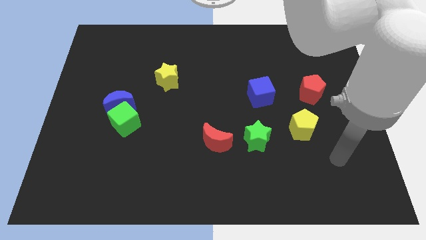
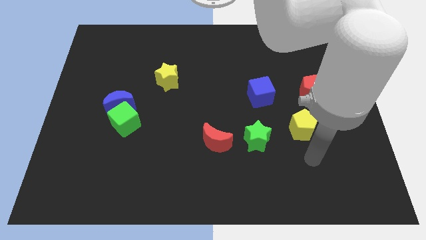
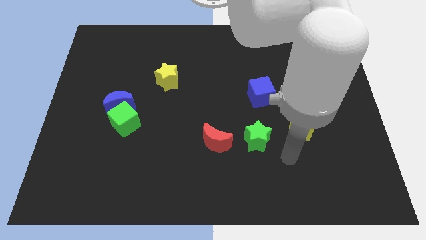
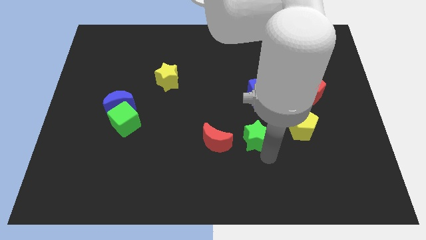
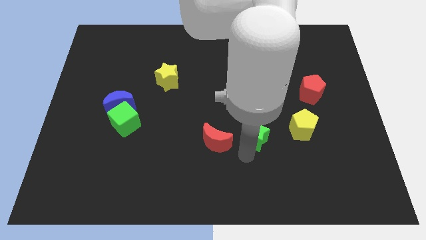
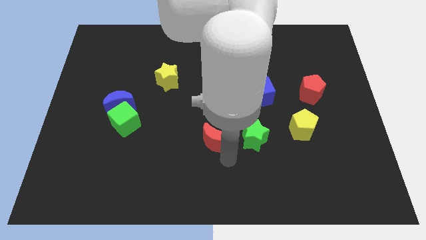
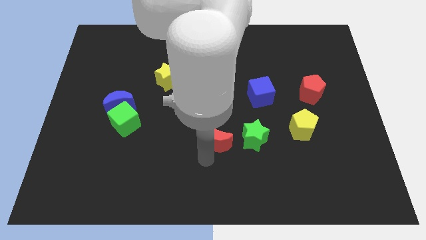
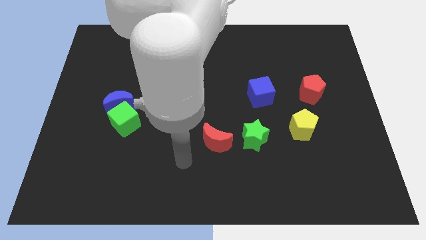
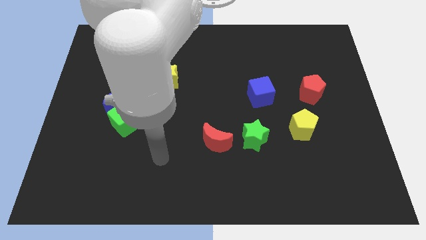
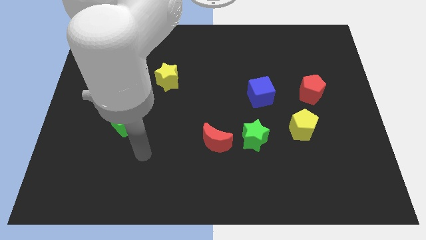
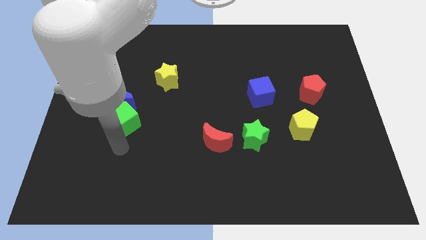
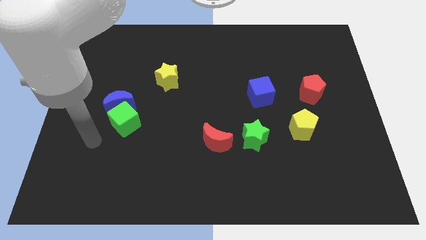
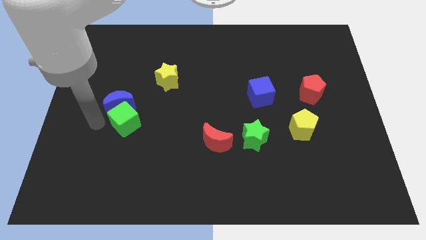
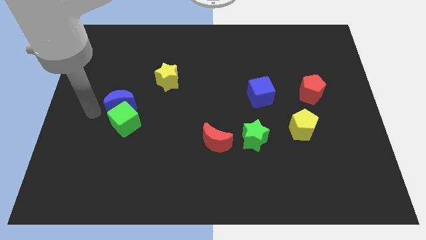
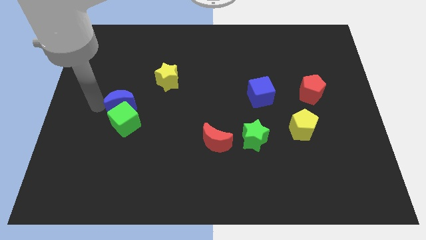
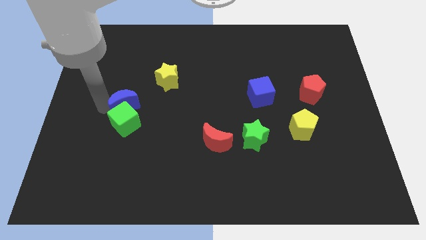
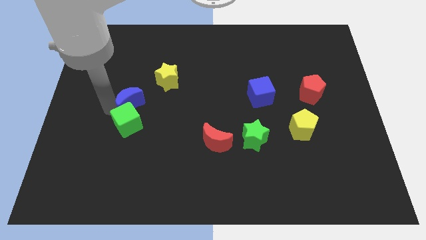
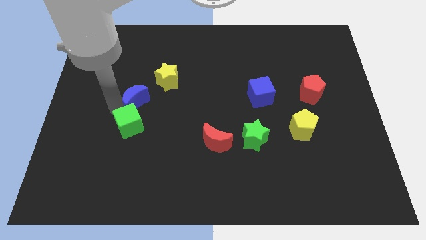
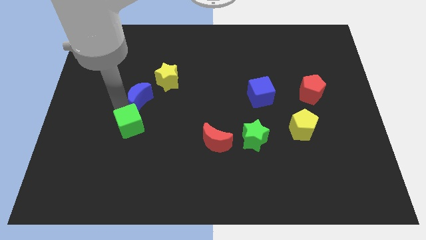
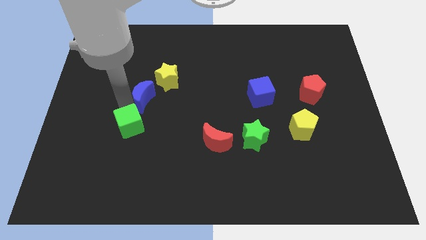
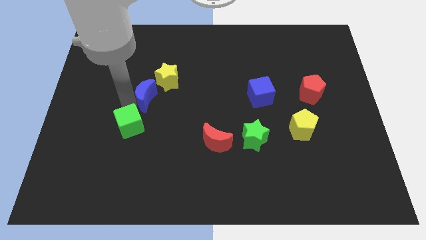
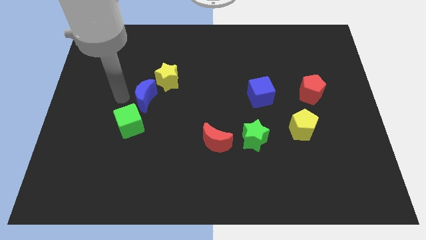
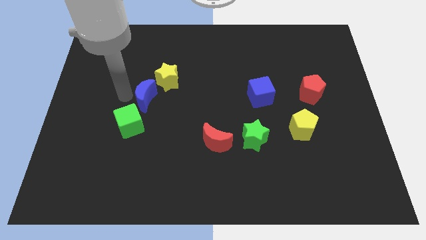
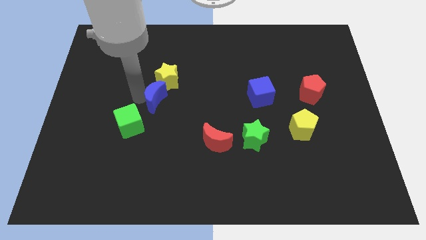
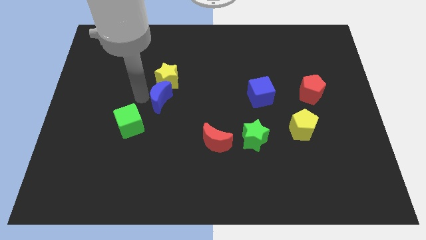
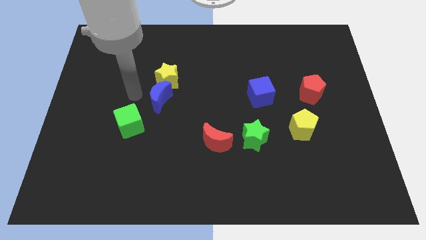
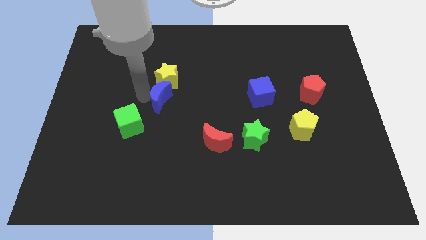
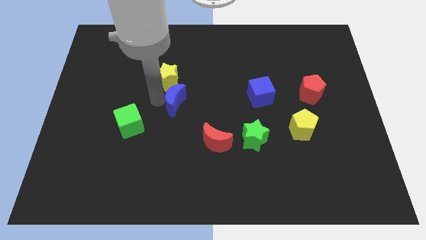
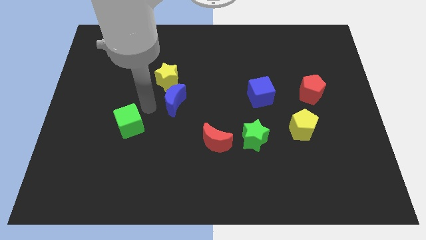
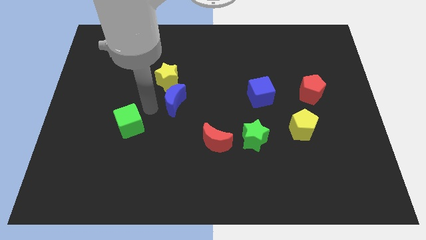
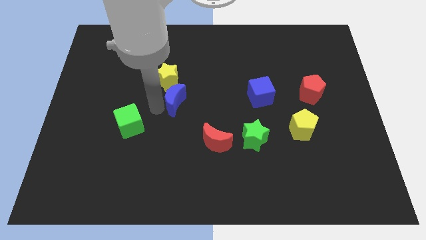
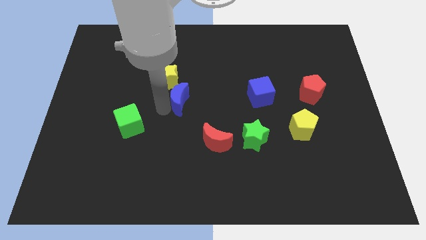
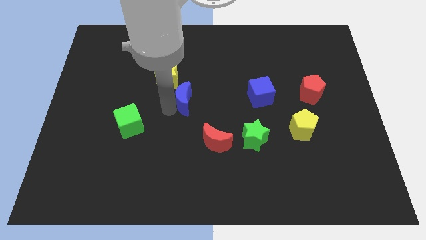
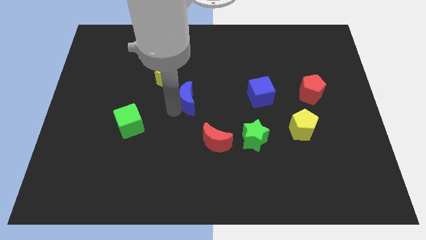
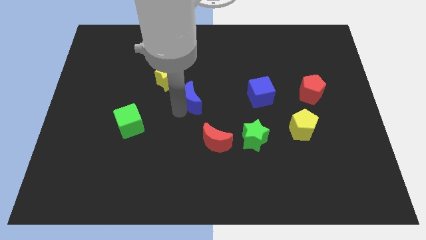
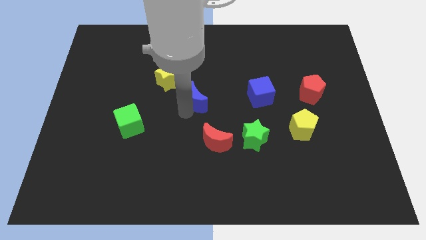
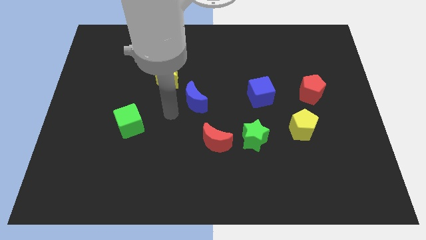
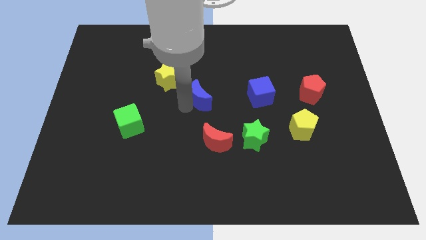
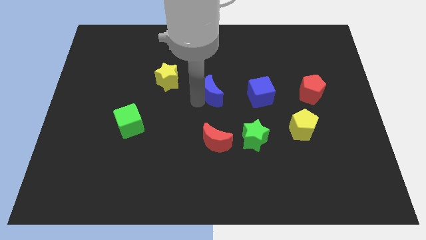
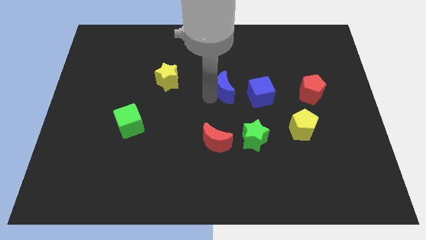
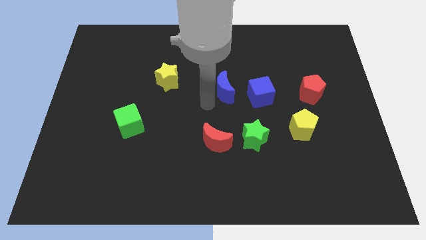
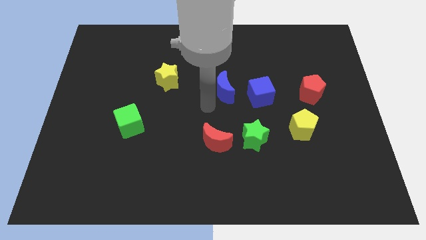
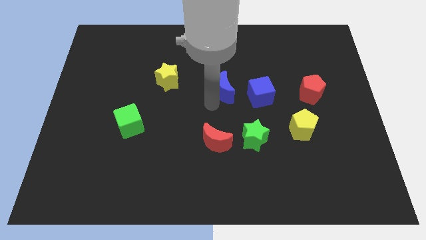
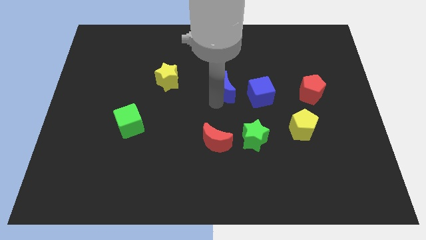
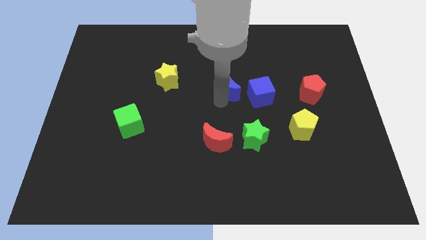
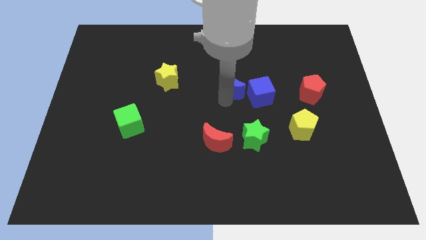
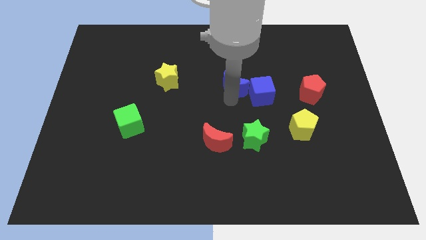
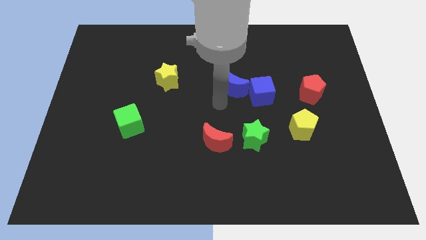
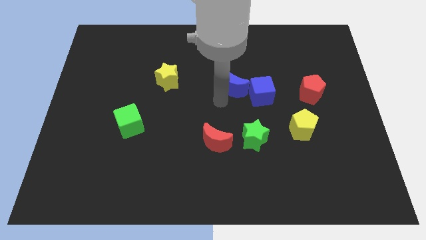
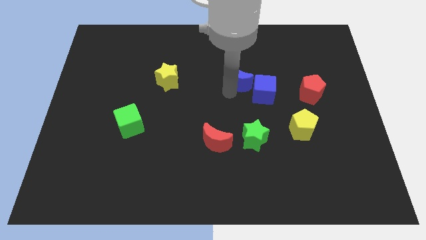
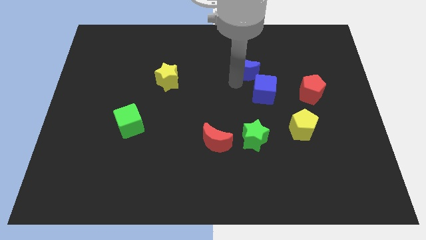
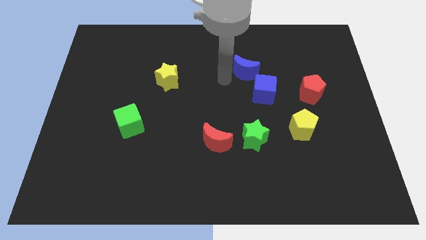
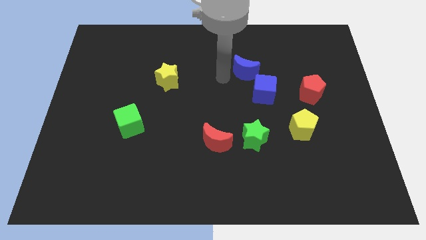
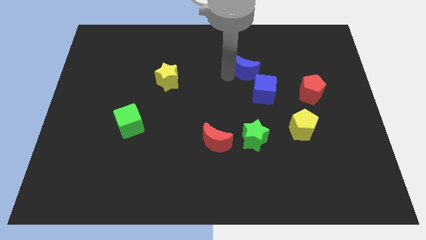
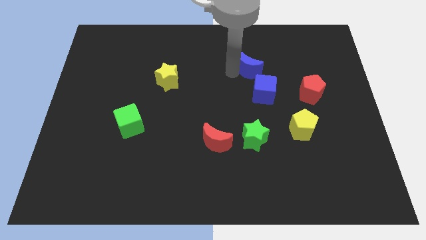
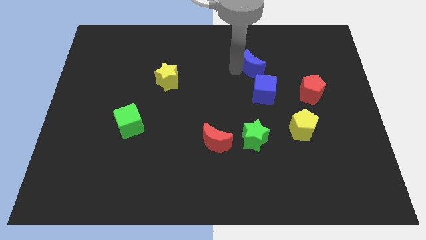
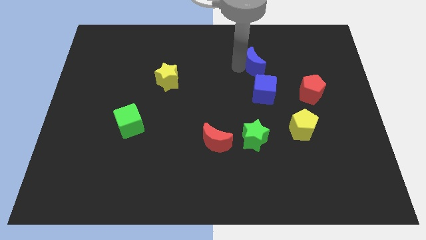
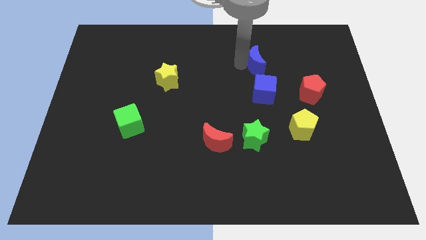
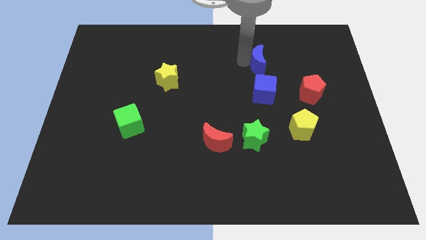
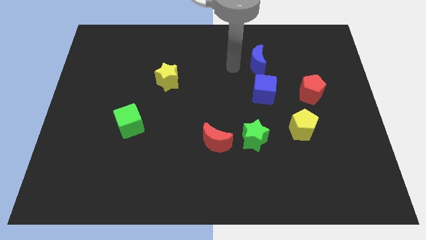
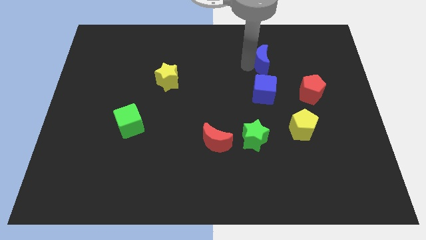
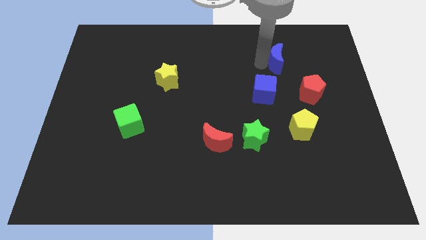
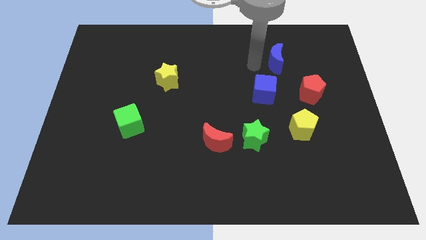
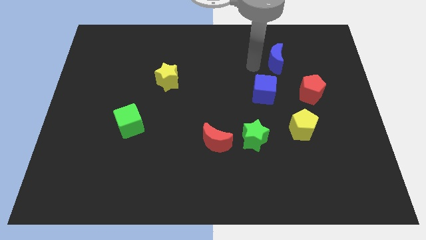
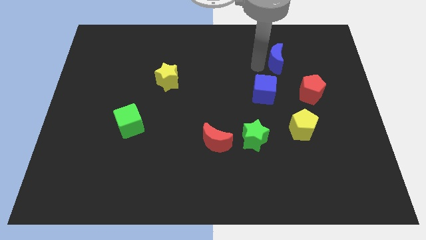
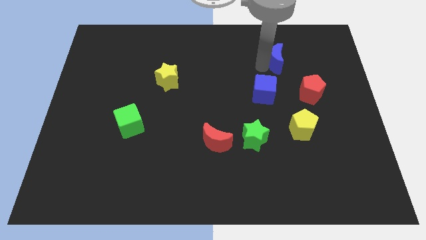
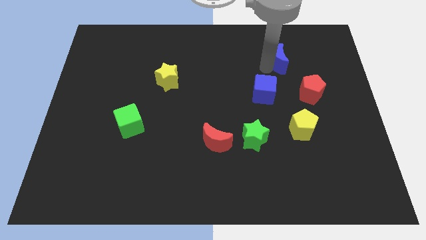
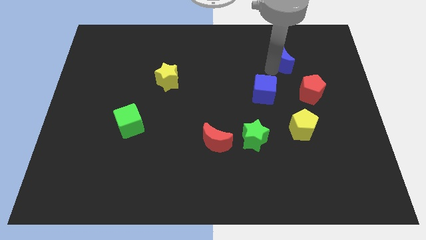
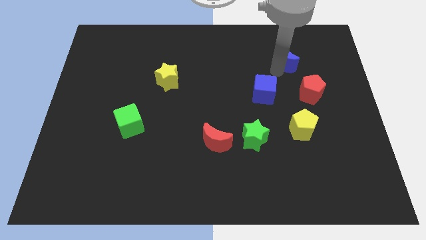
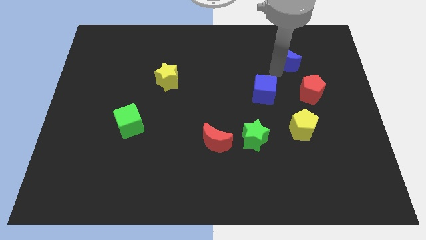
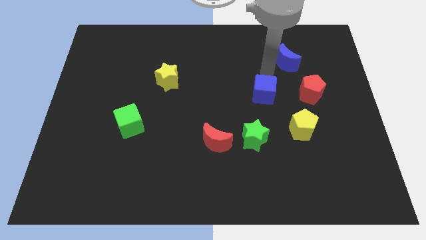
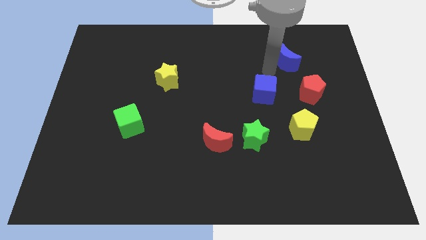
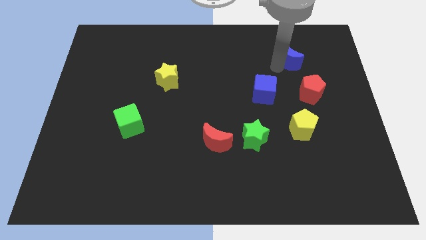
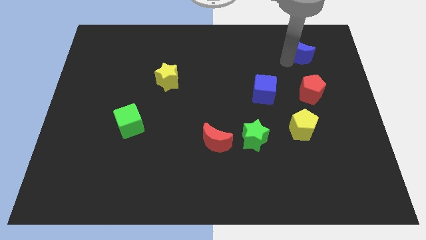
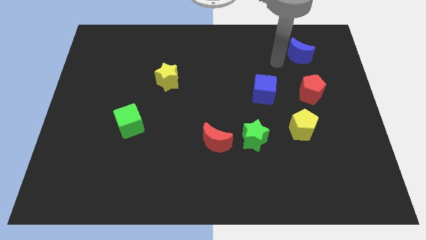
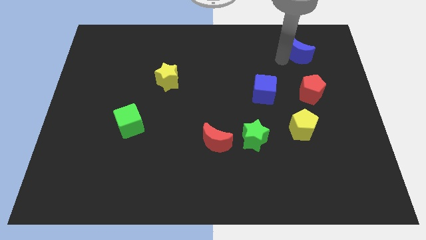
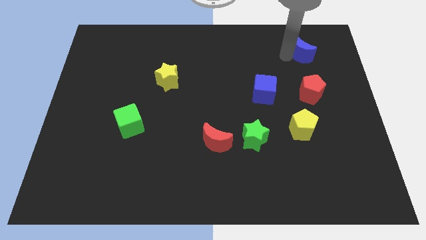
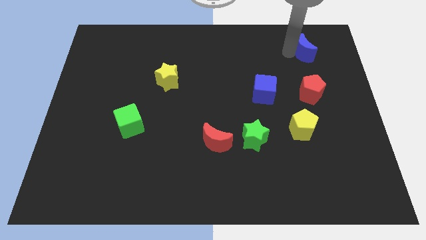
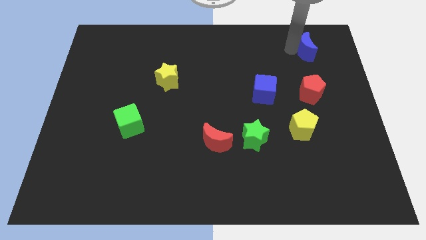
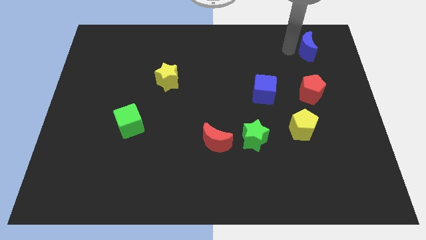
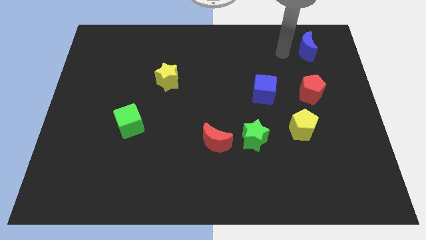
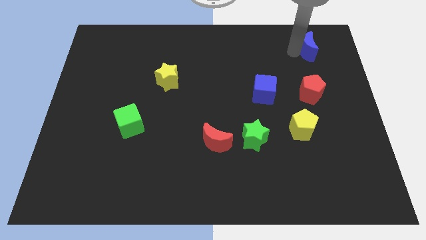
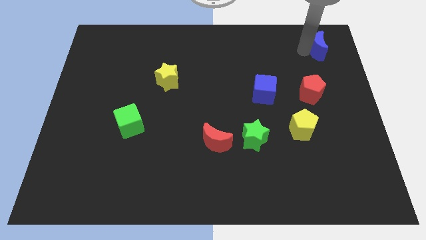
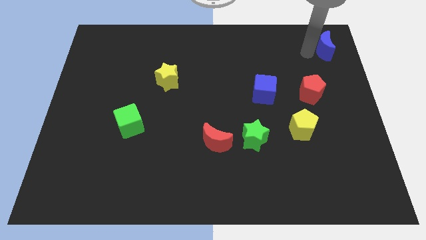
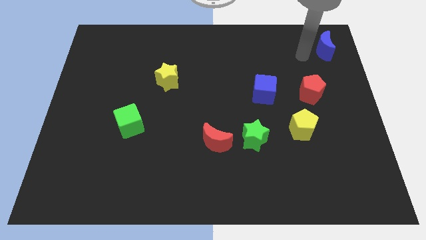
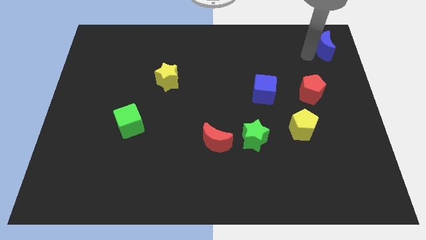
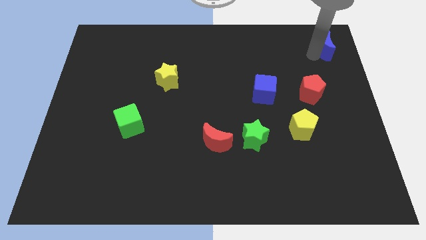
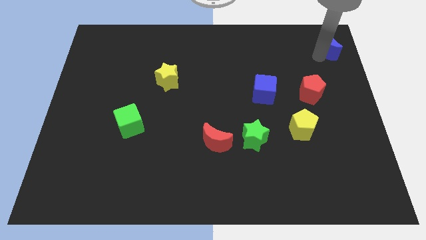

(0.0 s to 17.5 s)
put the blue moon to the top right corner
